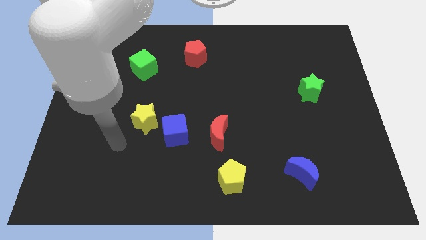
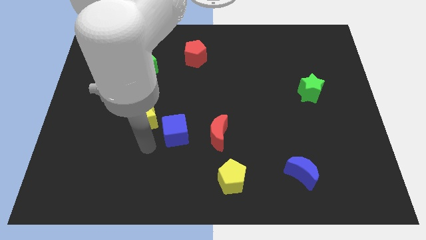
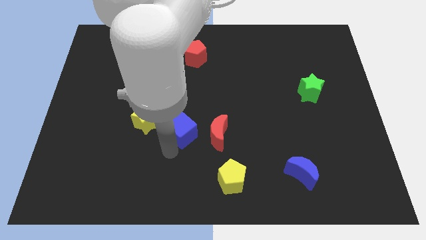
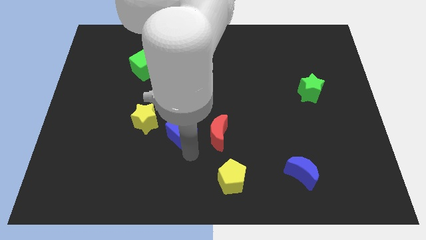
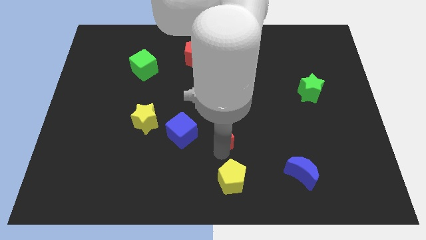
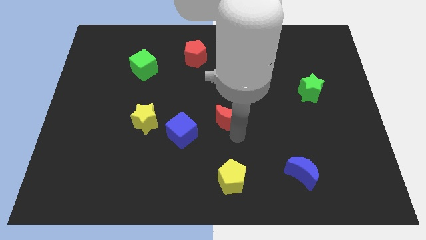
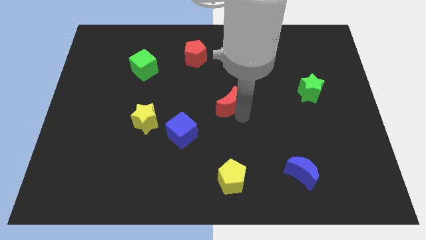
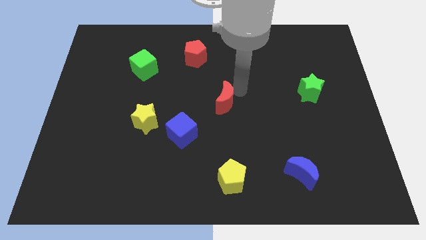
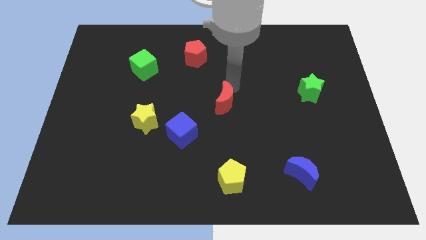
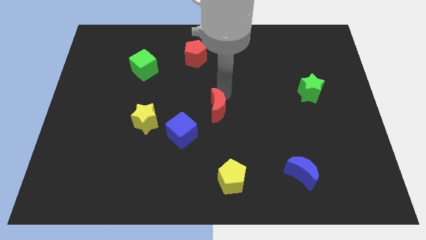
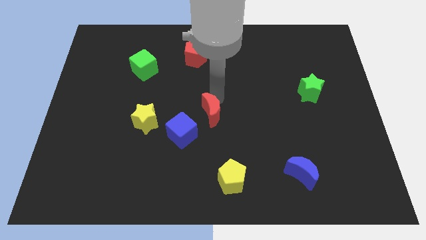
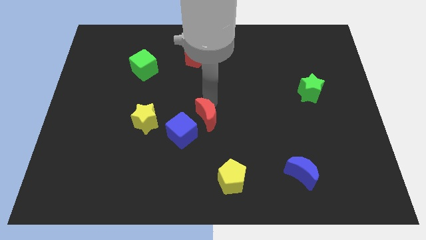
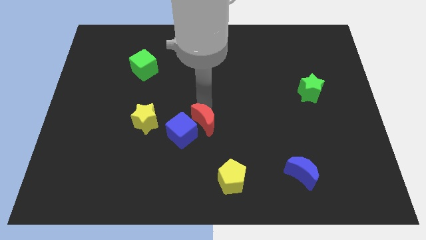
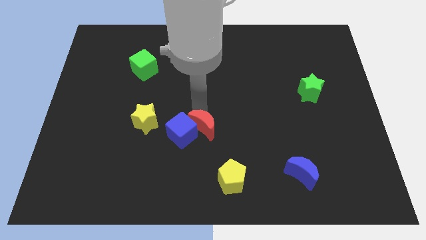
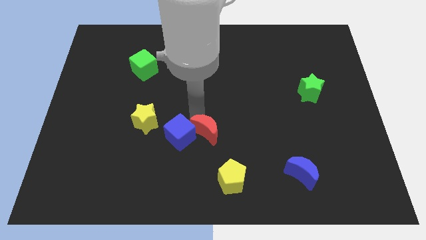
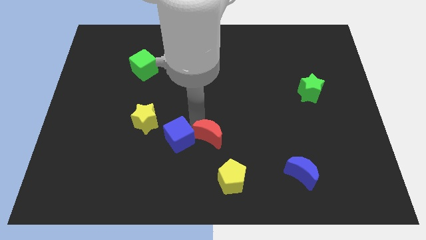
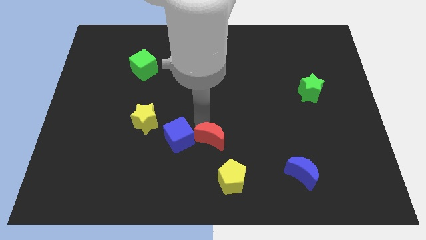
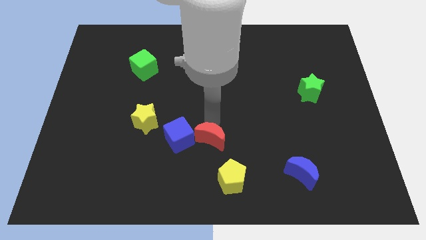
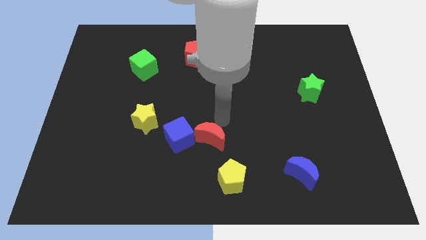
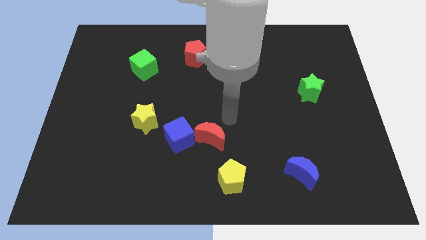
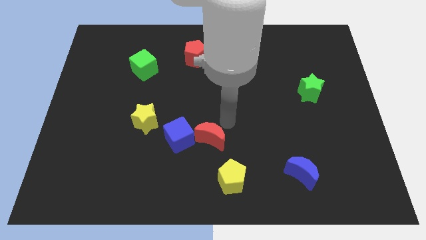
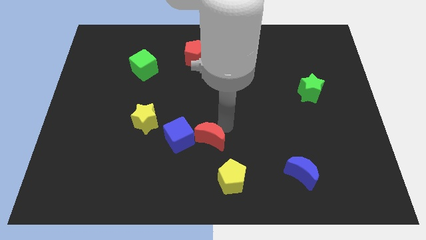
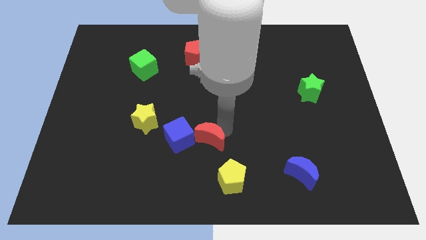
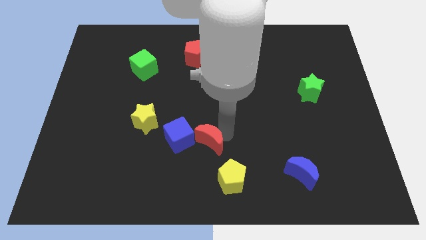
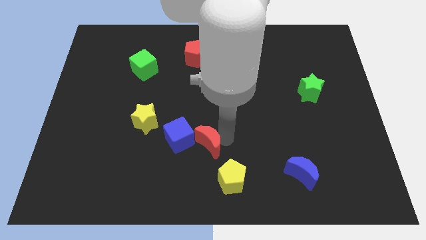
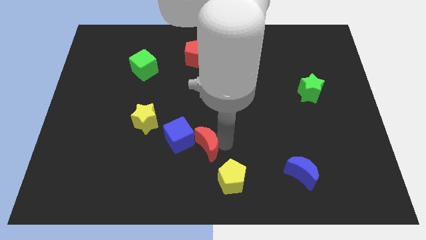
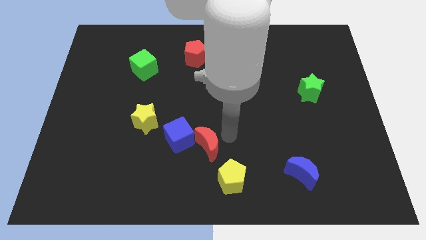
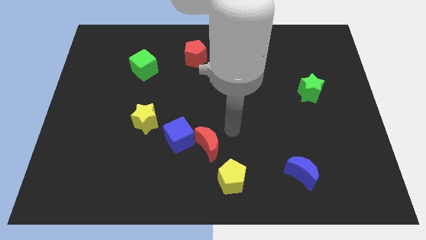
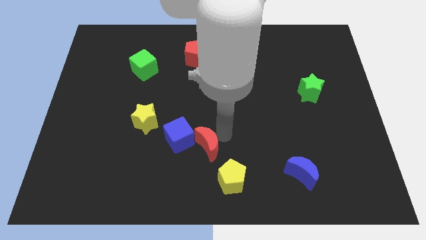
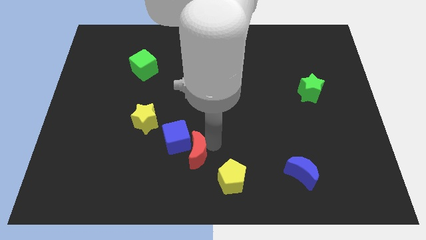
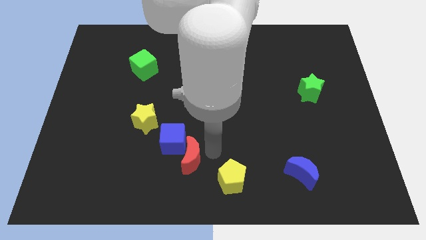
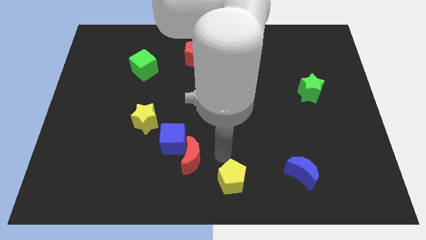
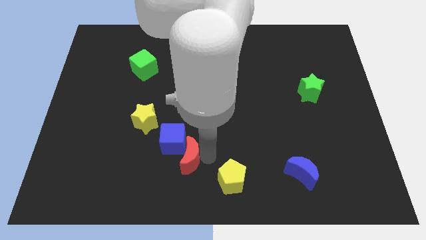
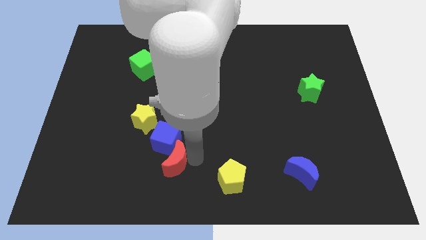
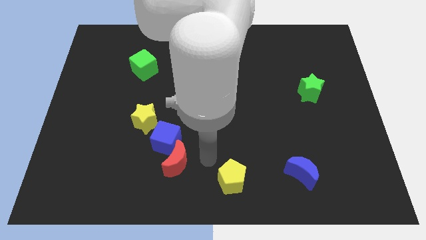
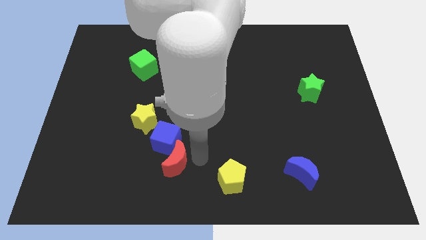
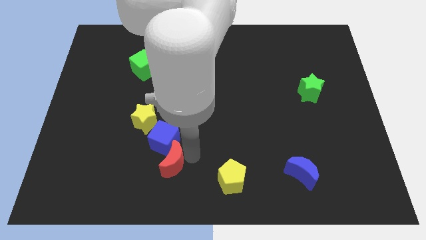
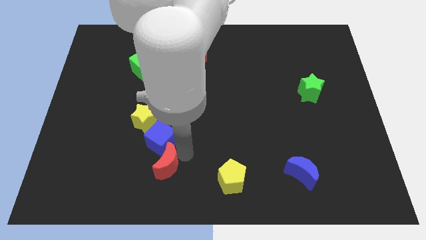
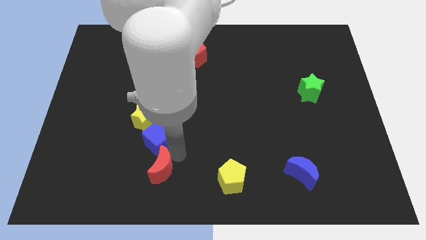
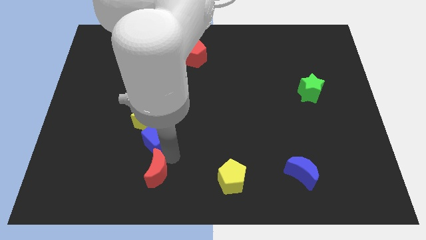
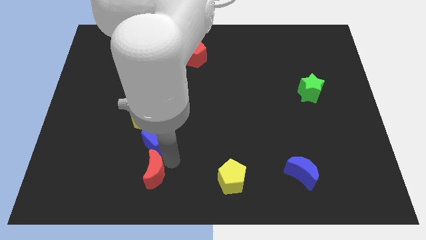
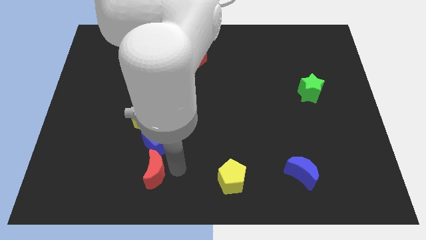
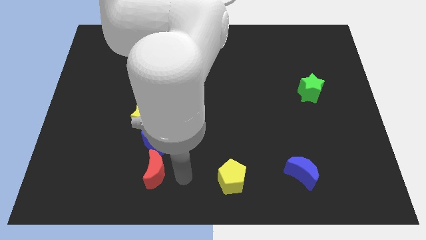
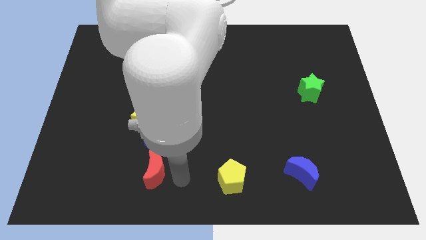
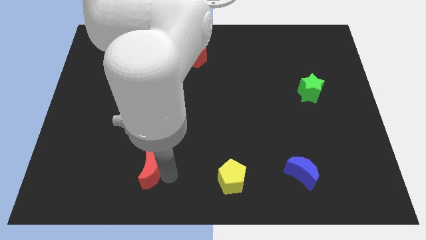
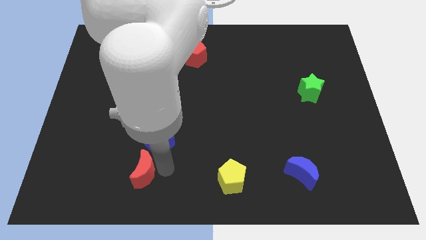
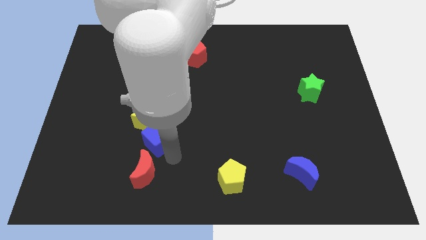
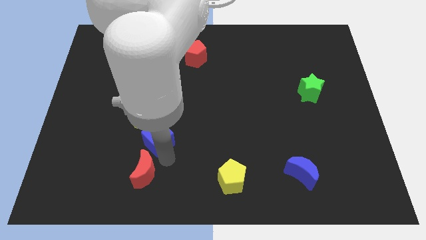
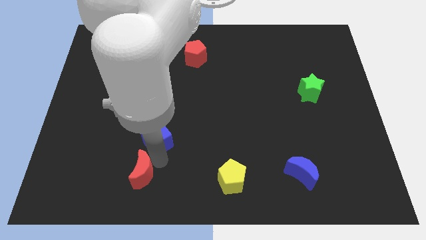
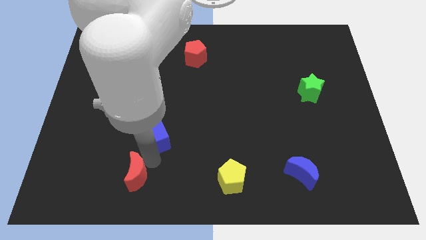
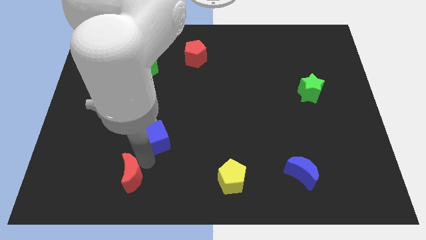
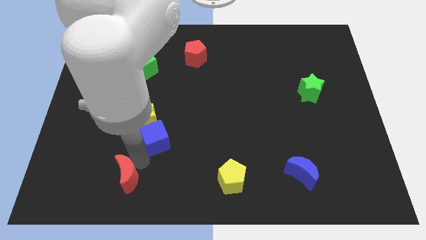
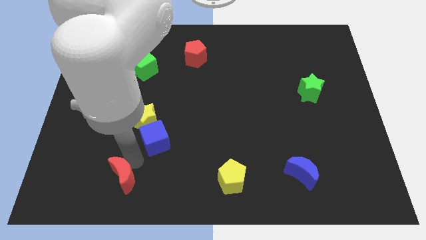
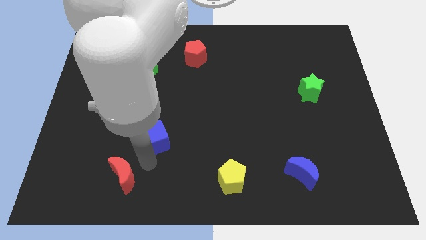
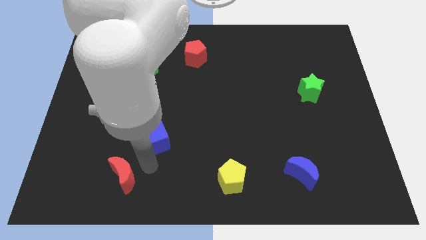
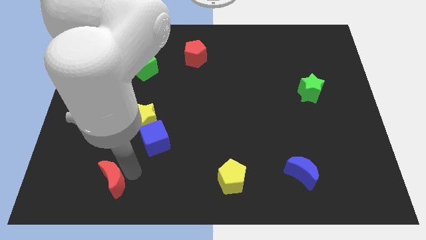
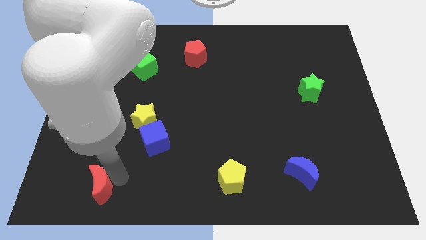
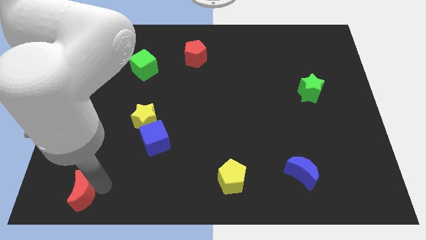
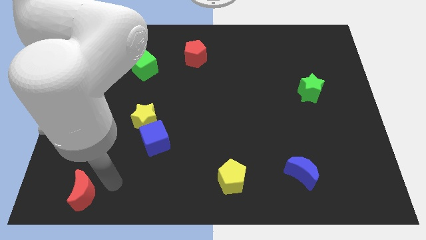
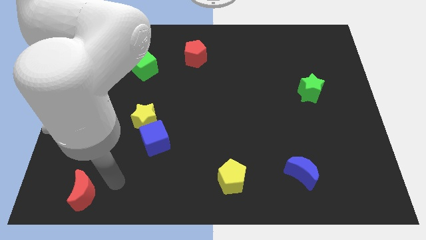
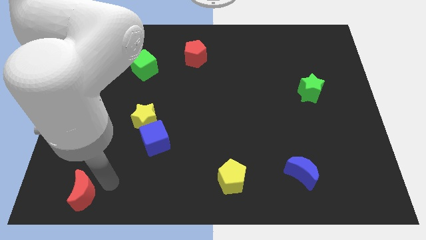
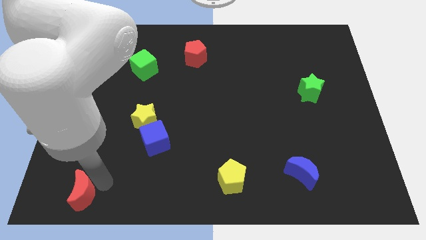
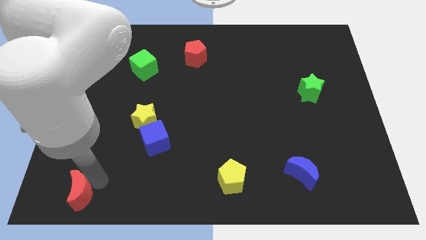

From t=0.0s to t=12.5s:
put the red moon to the bottom left corner

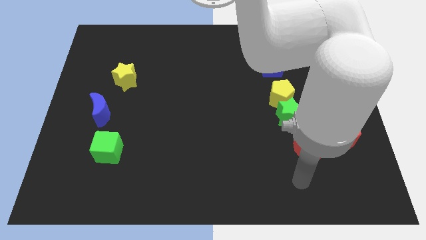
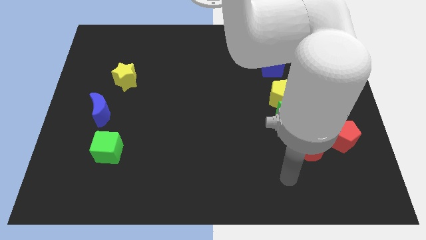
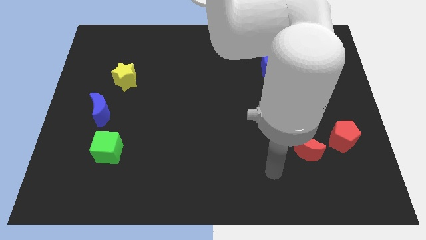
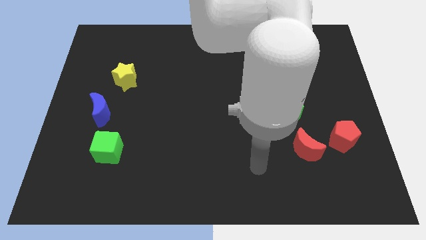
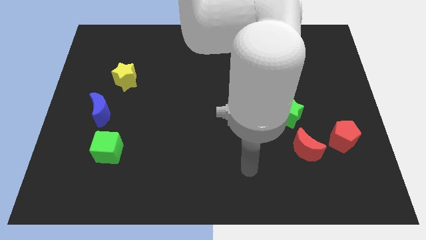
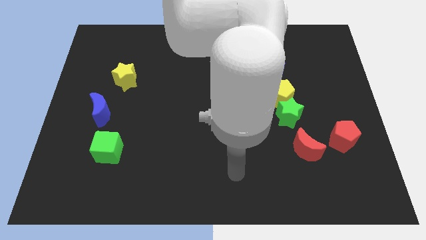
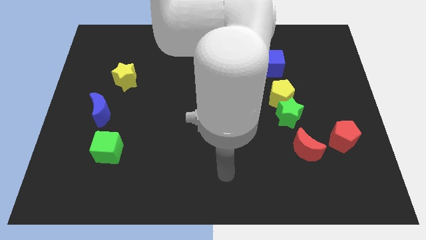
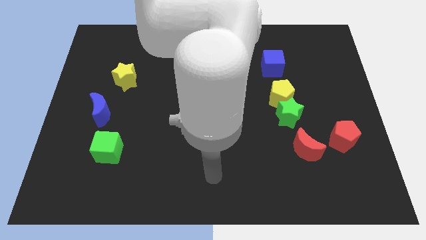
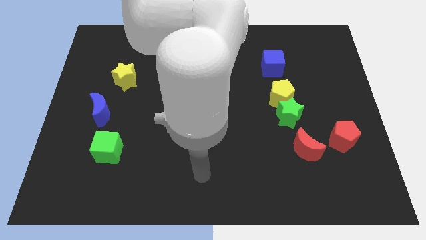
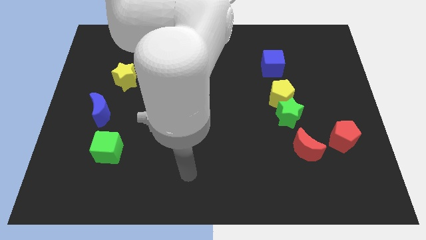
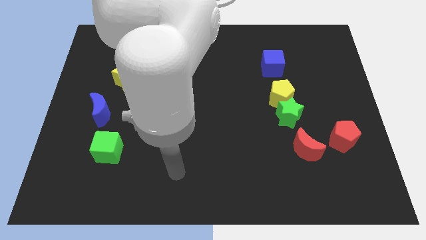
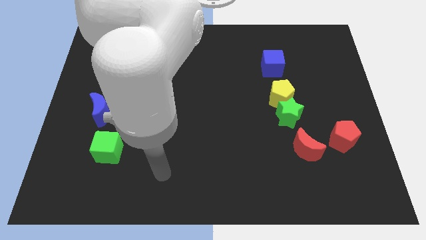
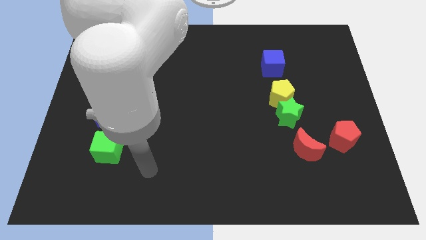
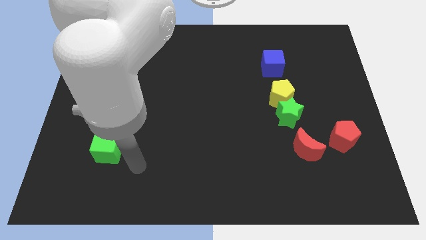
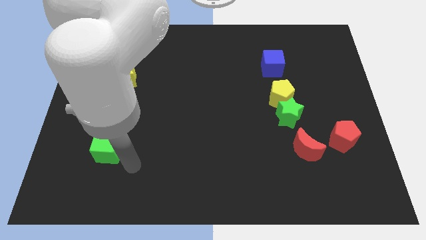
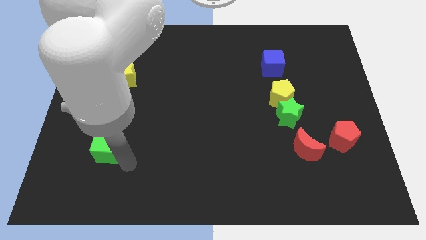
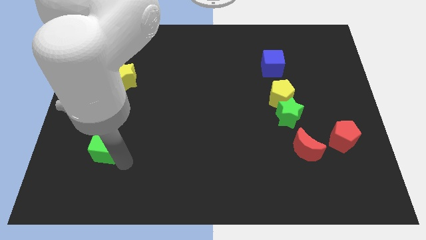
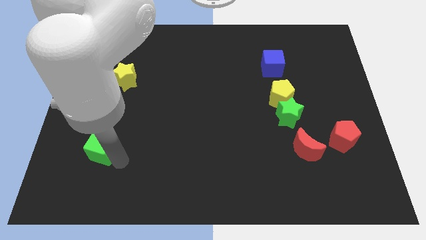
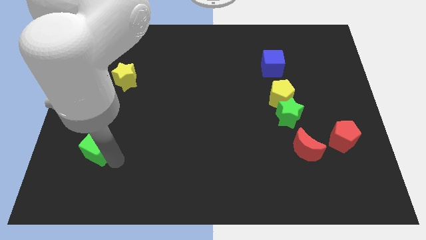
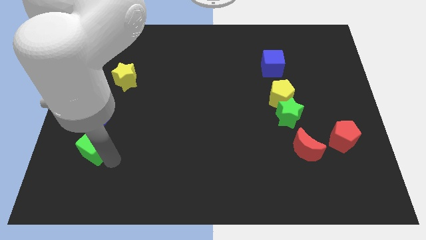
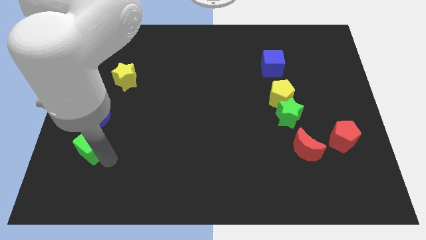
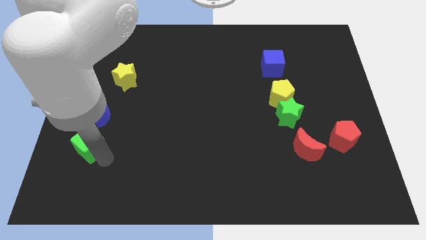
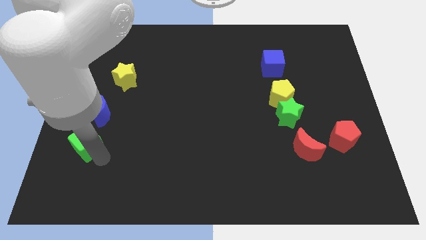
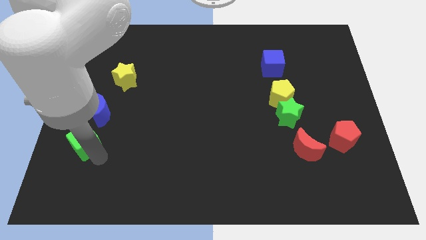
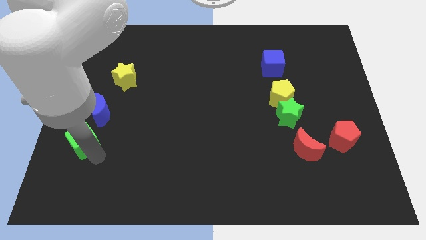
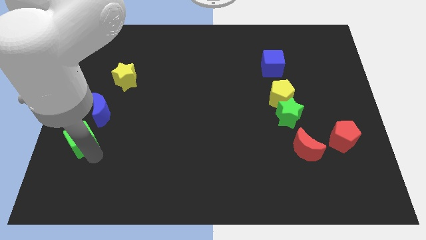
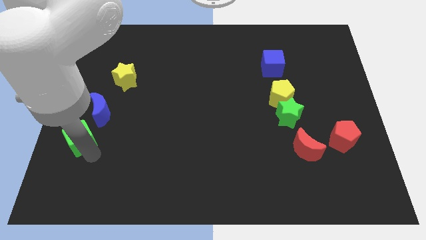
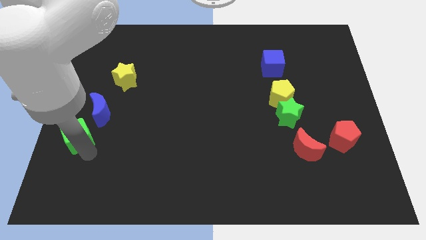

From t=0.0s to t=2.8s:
move the green cube to the center left
